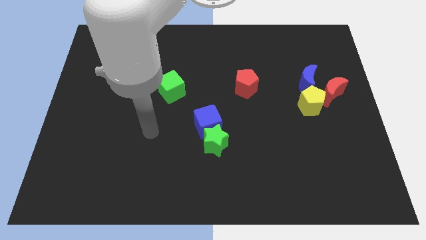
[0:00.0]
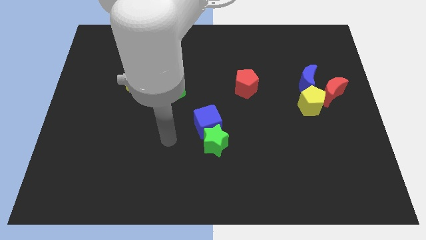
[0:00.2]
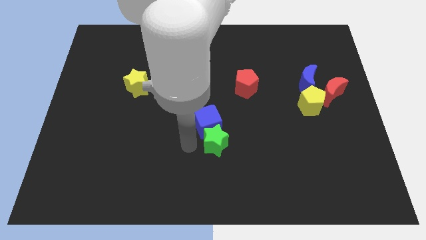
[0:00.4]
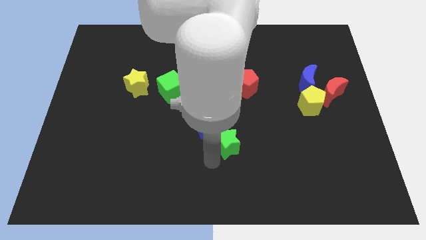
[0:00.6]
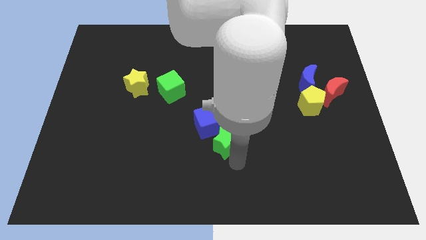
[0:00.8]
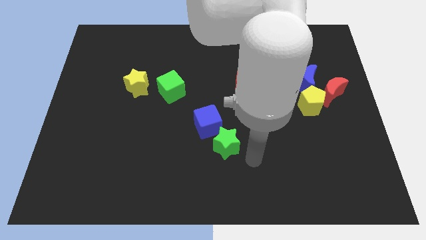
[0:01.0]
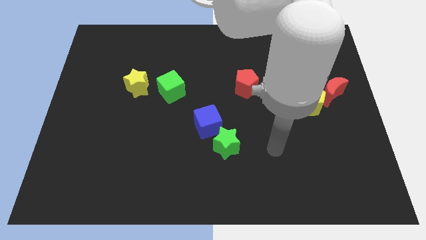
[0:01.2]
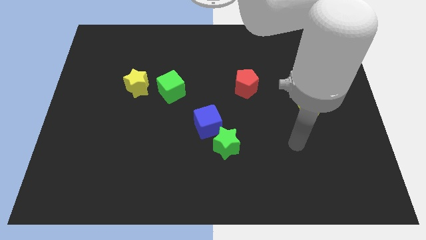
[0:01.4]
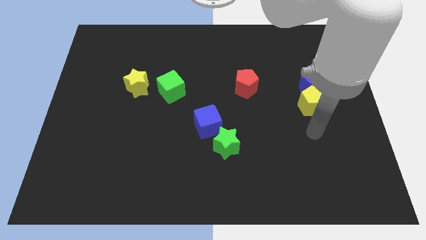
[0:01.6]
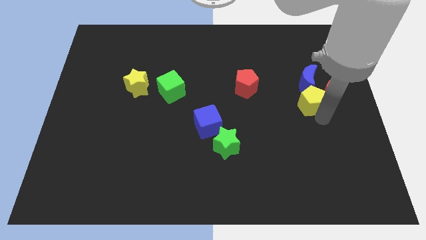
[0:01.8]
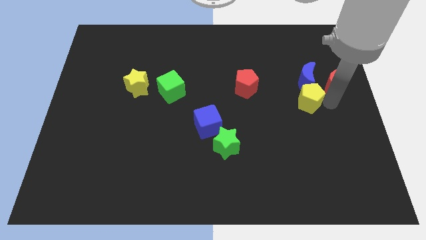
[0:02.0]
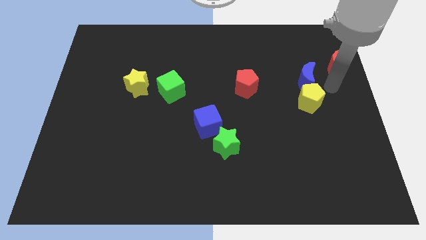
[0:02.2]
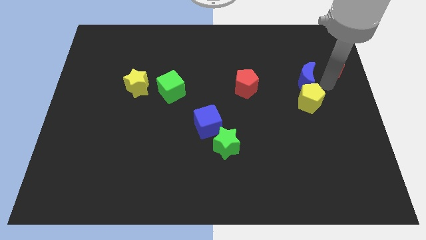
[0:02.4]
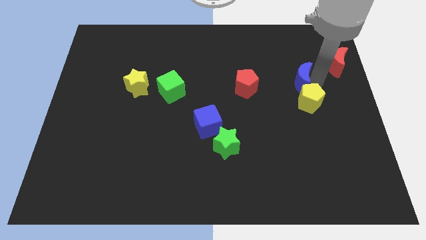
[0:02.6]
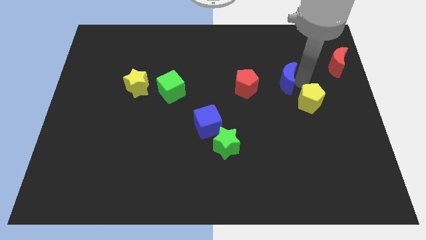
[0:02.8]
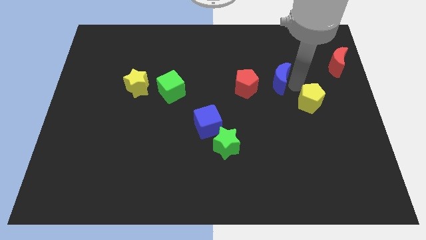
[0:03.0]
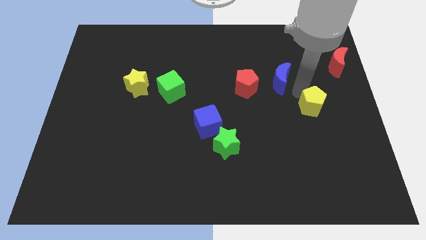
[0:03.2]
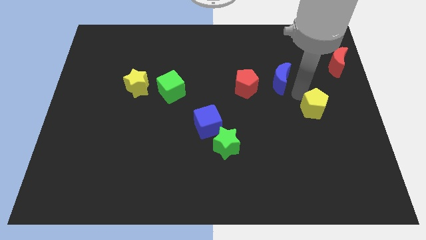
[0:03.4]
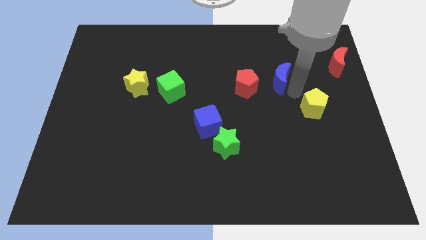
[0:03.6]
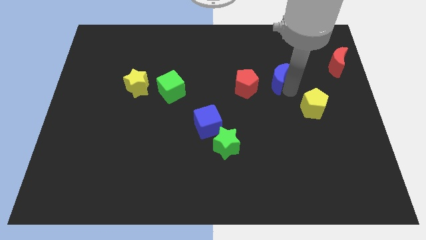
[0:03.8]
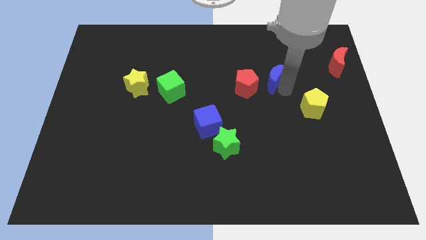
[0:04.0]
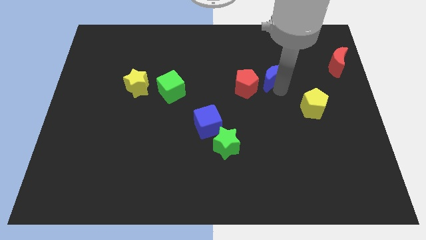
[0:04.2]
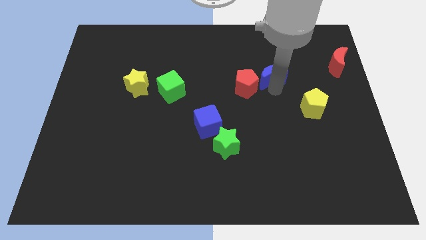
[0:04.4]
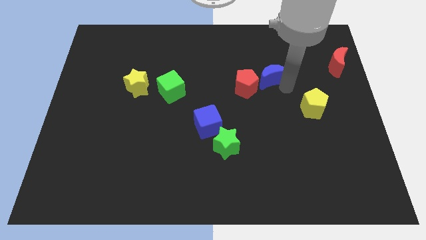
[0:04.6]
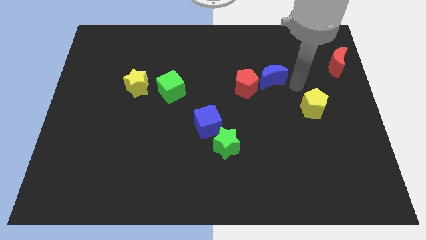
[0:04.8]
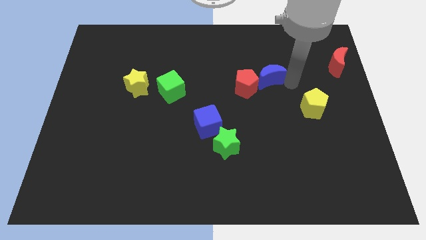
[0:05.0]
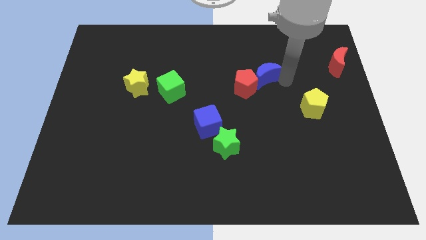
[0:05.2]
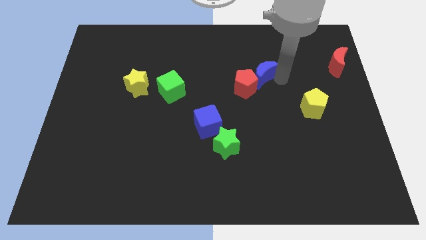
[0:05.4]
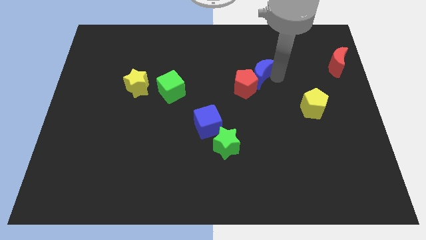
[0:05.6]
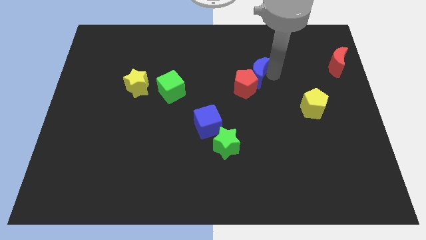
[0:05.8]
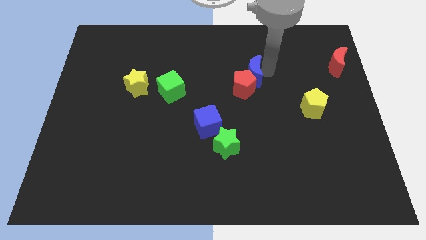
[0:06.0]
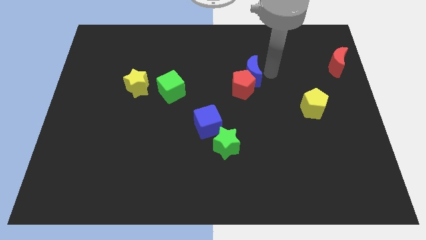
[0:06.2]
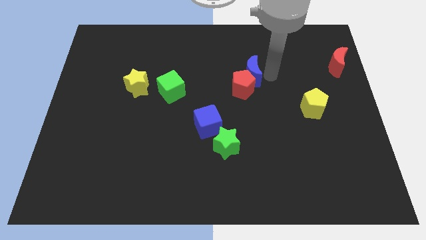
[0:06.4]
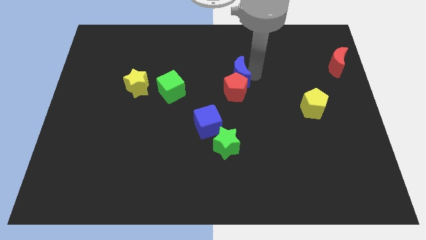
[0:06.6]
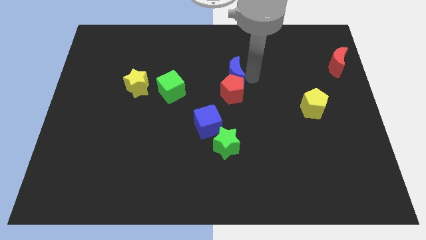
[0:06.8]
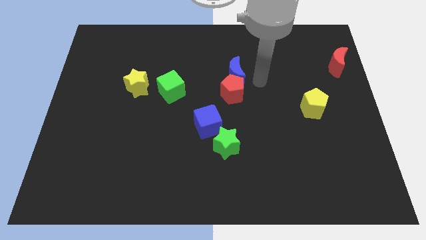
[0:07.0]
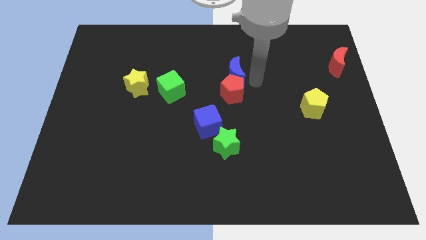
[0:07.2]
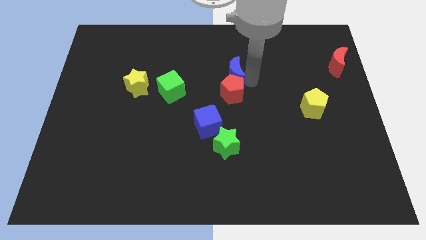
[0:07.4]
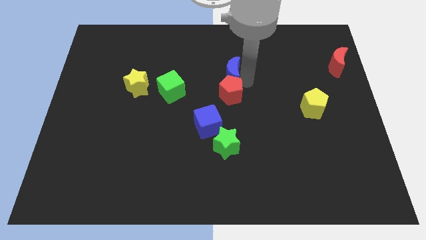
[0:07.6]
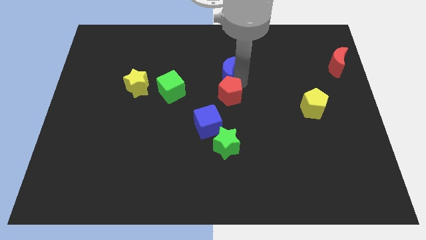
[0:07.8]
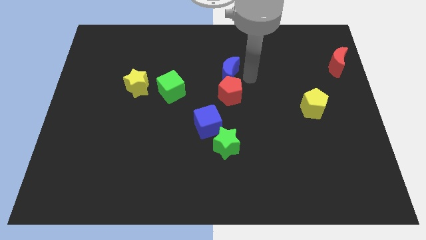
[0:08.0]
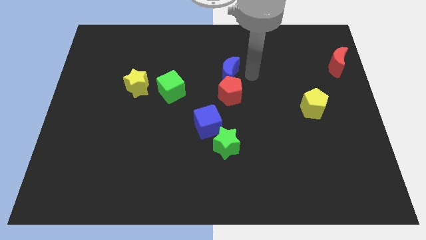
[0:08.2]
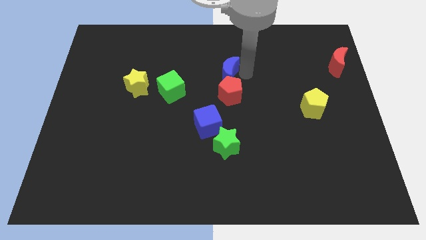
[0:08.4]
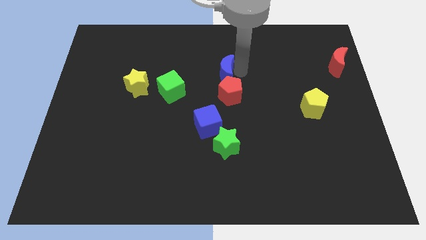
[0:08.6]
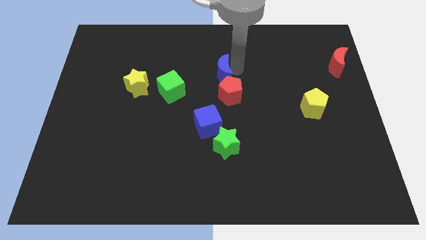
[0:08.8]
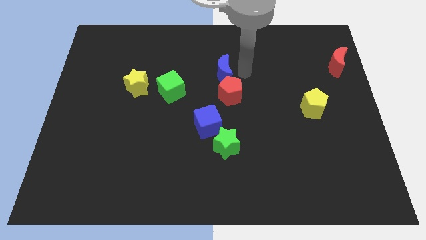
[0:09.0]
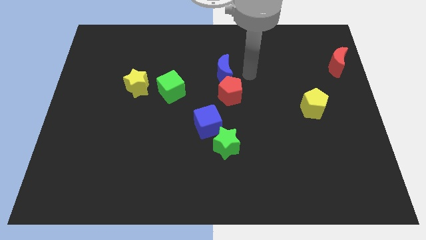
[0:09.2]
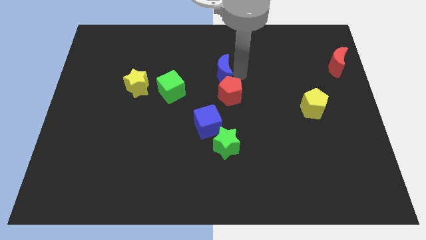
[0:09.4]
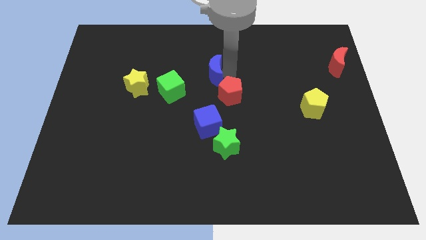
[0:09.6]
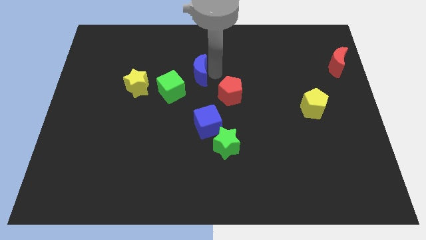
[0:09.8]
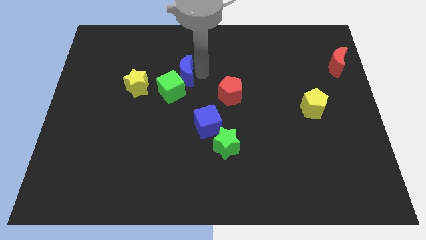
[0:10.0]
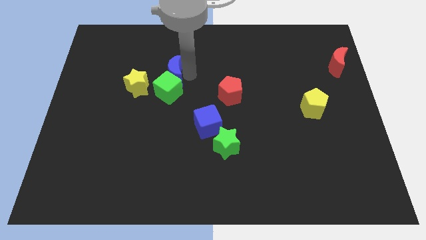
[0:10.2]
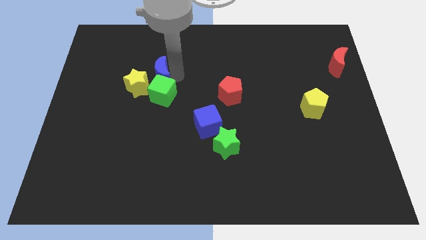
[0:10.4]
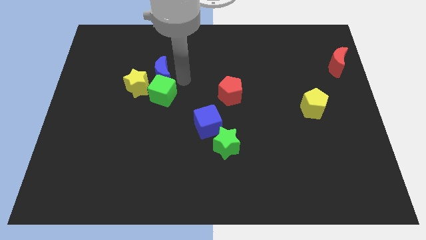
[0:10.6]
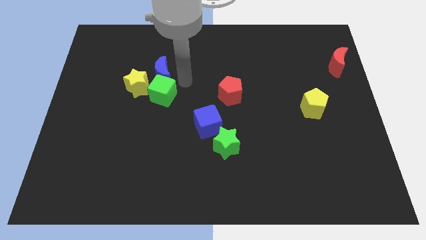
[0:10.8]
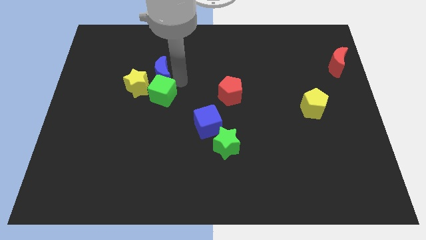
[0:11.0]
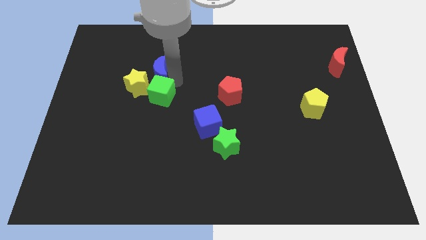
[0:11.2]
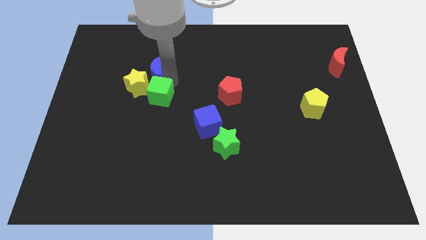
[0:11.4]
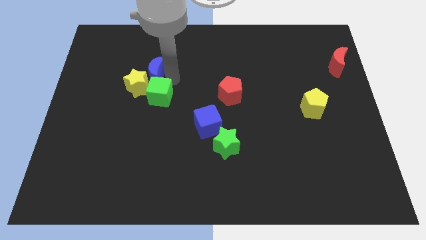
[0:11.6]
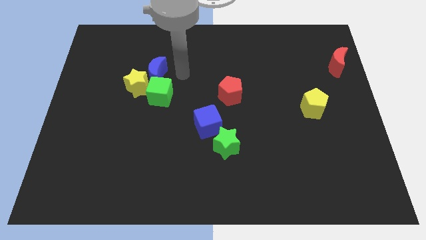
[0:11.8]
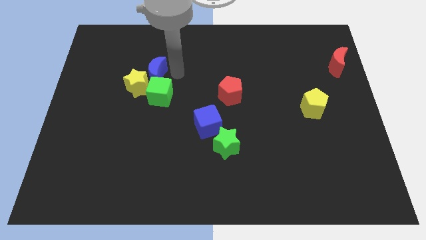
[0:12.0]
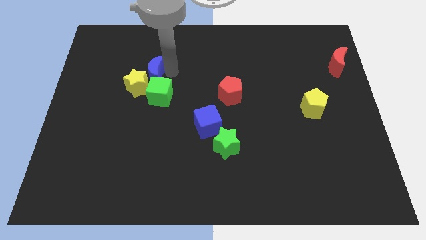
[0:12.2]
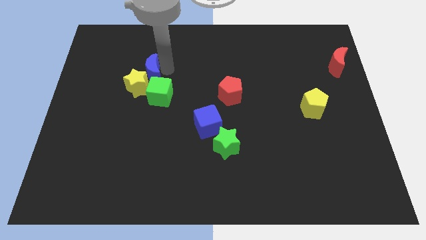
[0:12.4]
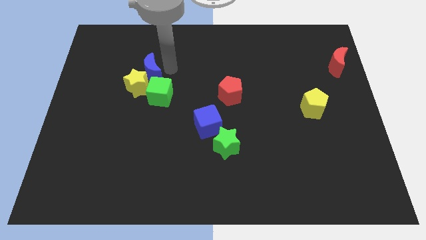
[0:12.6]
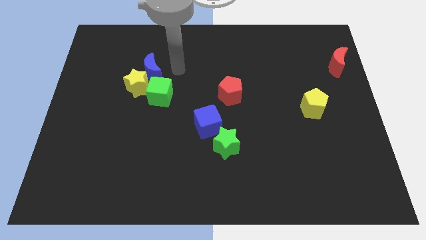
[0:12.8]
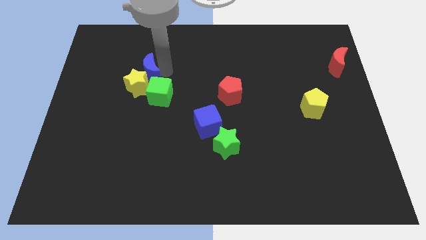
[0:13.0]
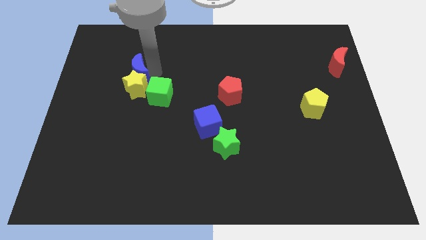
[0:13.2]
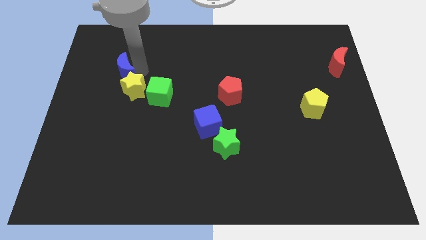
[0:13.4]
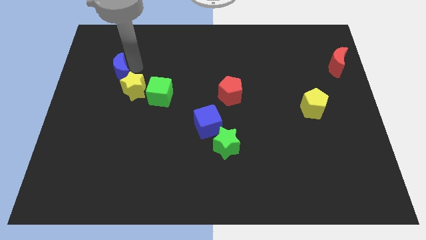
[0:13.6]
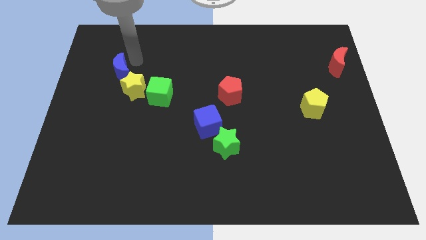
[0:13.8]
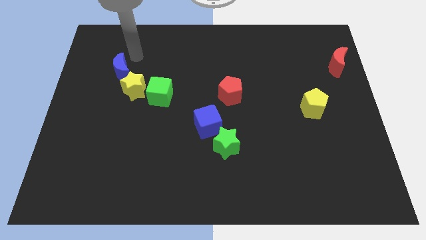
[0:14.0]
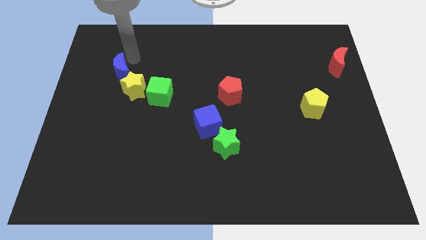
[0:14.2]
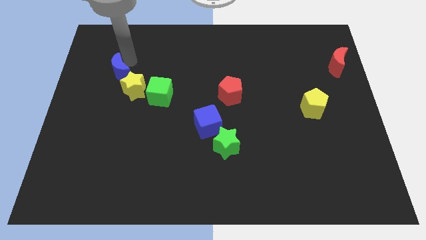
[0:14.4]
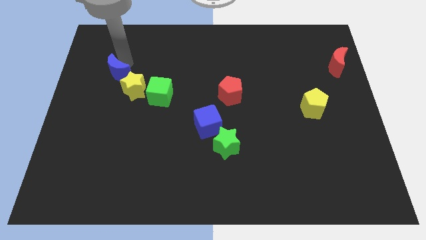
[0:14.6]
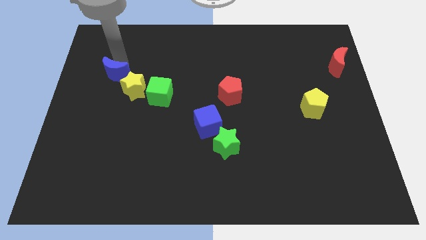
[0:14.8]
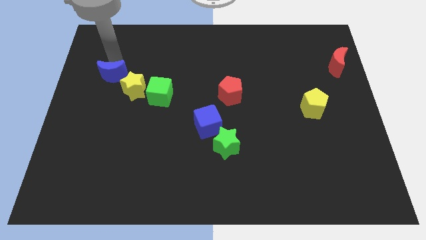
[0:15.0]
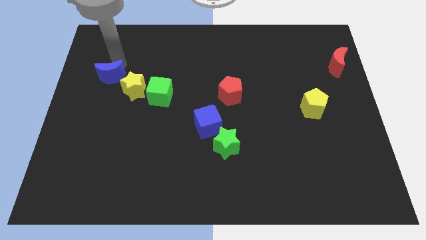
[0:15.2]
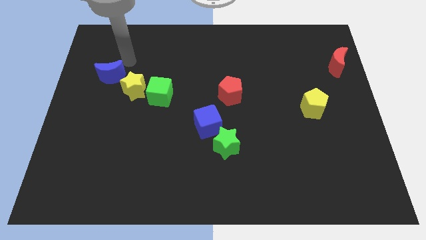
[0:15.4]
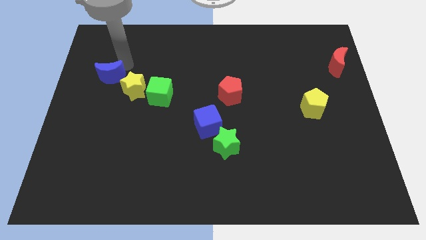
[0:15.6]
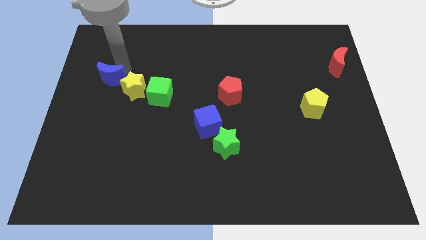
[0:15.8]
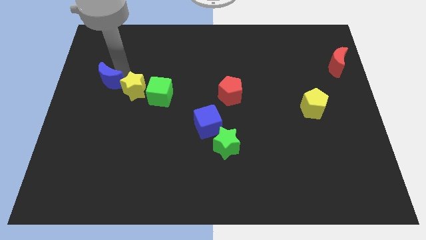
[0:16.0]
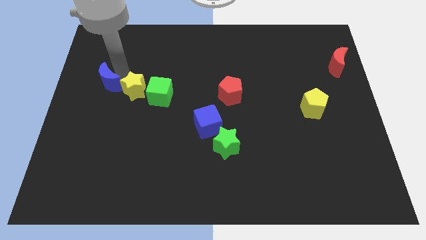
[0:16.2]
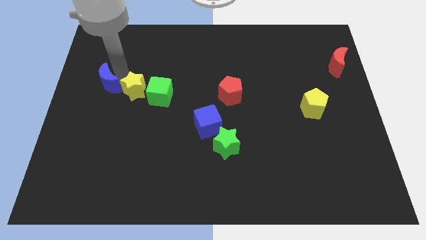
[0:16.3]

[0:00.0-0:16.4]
slide the blue moon to the center left
